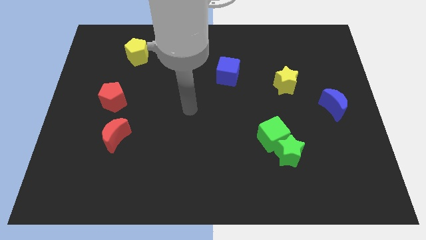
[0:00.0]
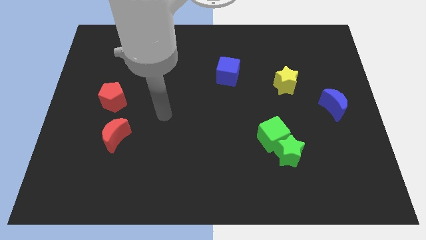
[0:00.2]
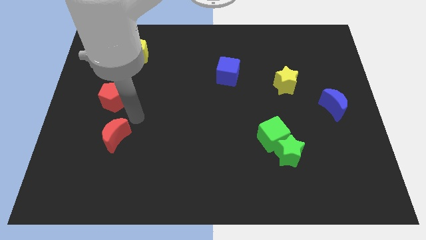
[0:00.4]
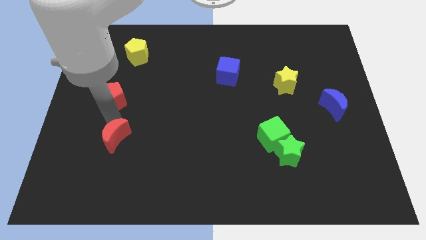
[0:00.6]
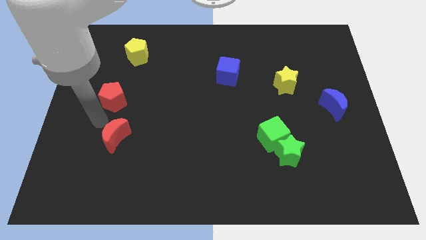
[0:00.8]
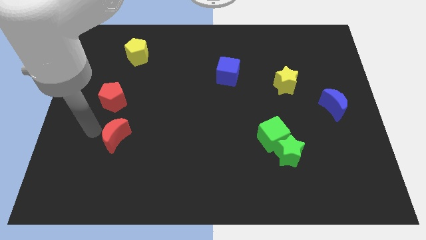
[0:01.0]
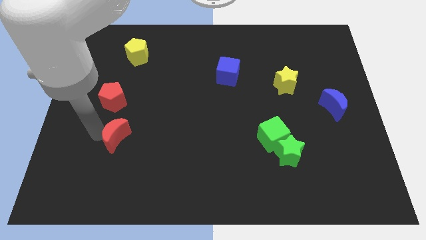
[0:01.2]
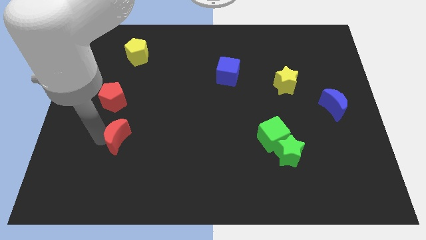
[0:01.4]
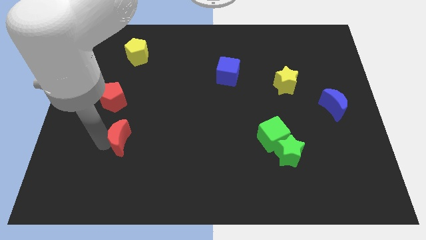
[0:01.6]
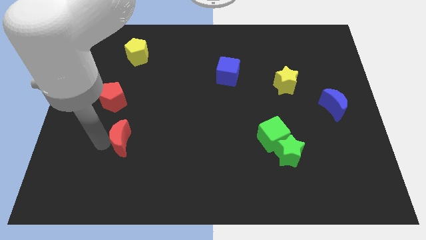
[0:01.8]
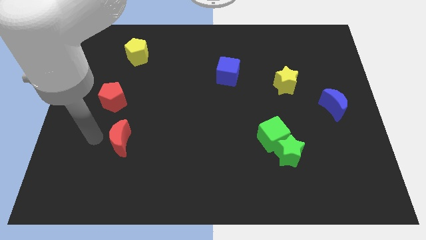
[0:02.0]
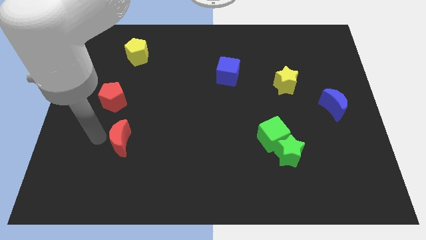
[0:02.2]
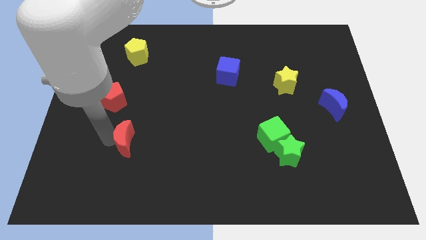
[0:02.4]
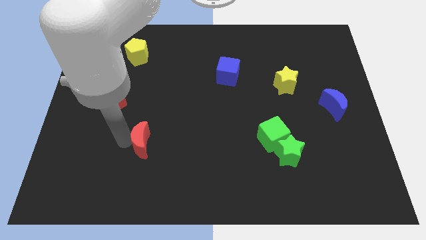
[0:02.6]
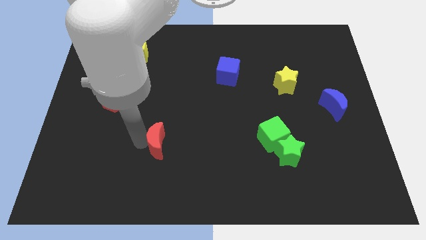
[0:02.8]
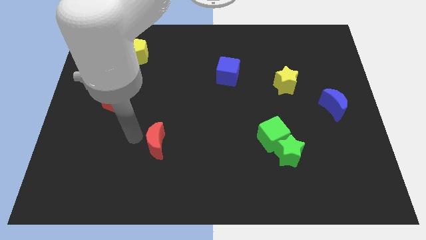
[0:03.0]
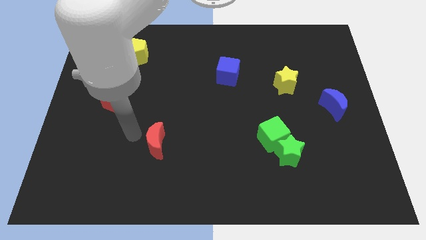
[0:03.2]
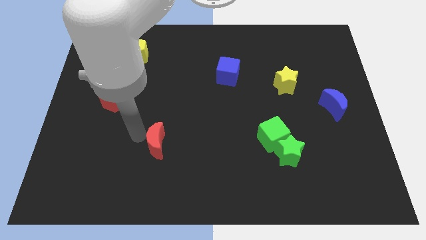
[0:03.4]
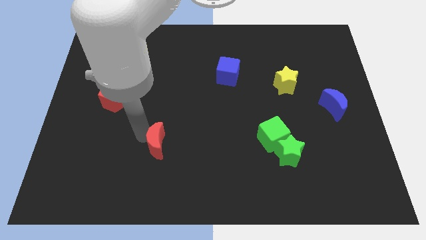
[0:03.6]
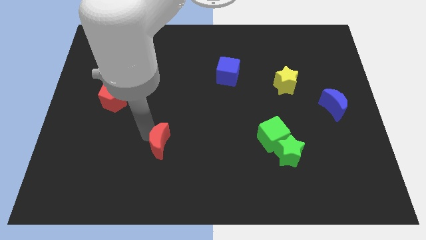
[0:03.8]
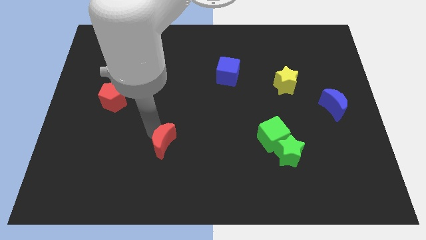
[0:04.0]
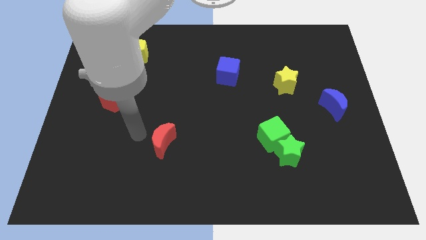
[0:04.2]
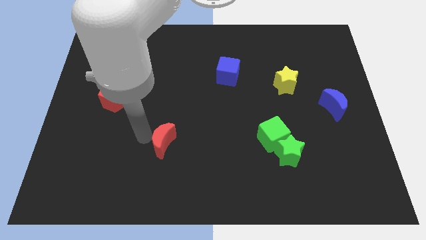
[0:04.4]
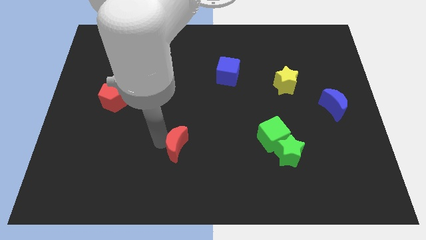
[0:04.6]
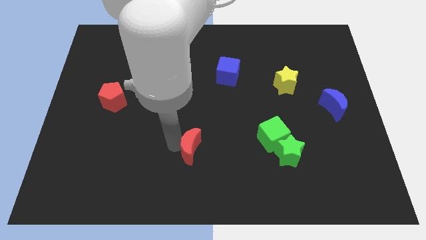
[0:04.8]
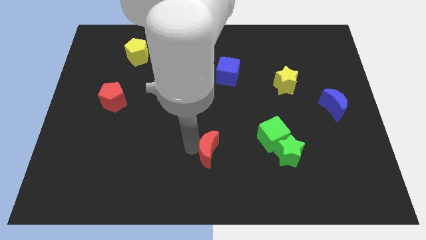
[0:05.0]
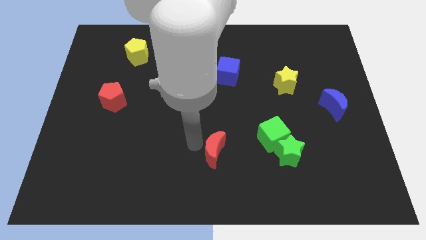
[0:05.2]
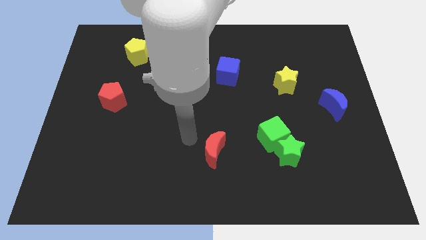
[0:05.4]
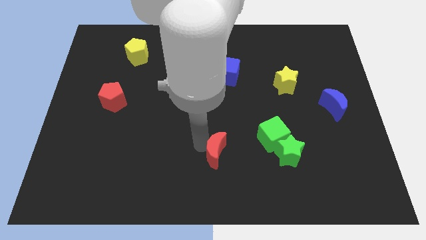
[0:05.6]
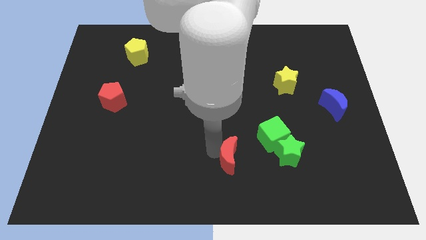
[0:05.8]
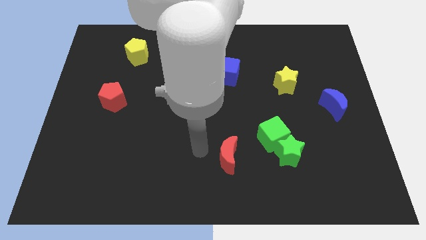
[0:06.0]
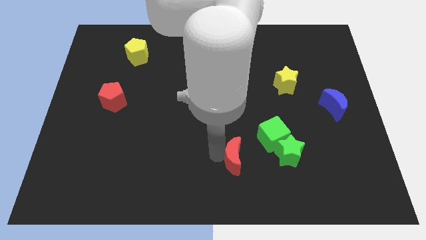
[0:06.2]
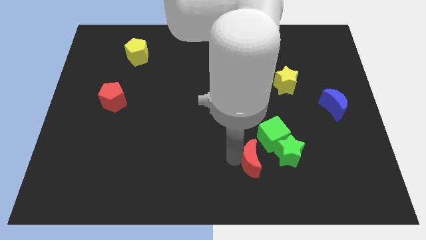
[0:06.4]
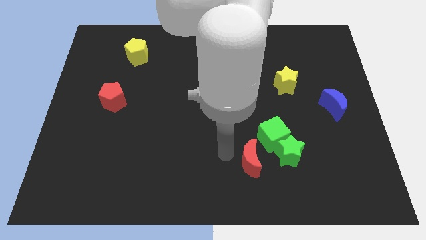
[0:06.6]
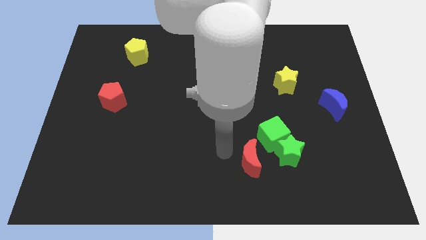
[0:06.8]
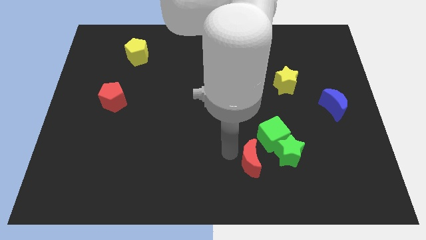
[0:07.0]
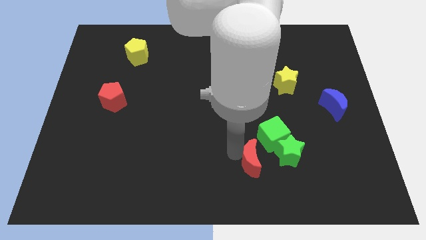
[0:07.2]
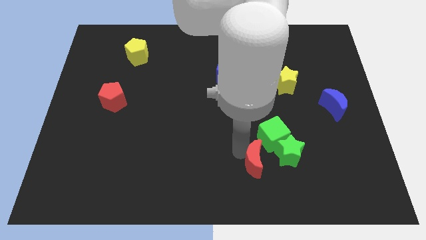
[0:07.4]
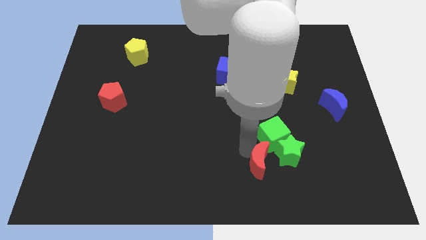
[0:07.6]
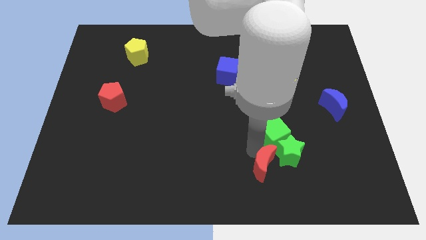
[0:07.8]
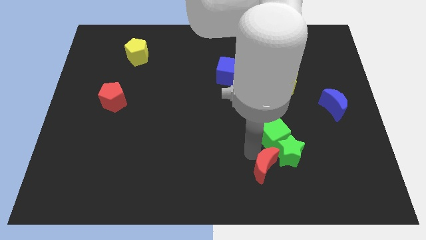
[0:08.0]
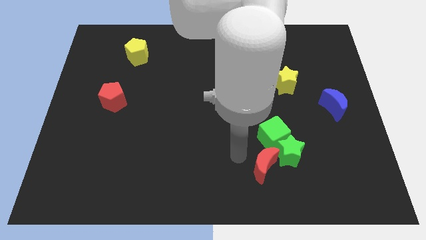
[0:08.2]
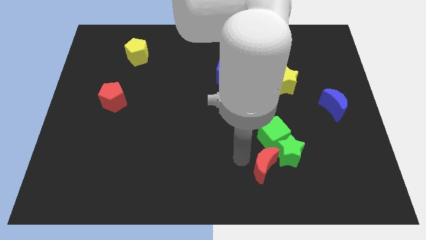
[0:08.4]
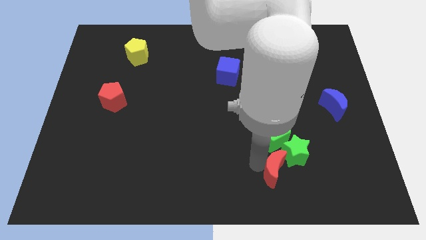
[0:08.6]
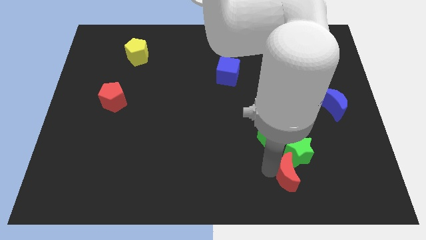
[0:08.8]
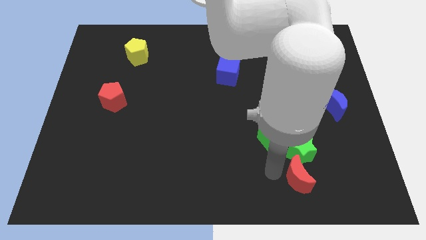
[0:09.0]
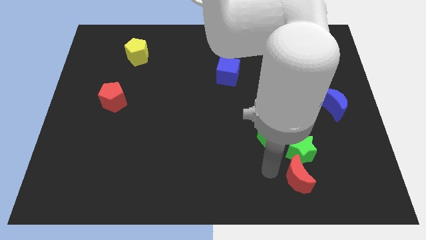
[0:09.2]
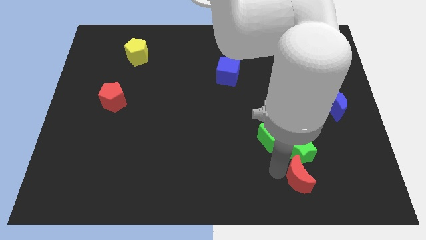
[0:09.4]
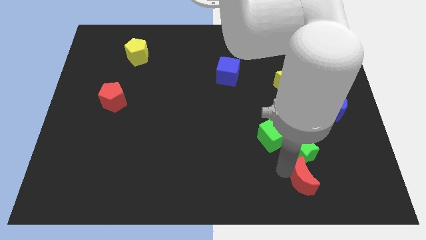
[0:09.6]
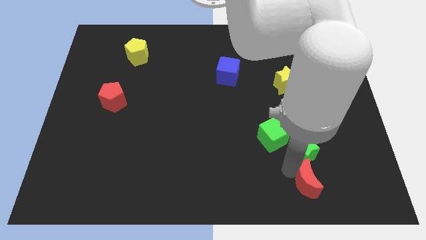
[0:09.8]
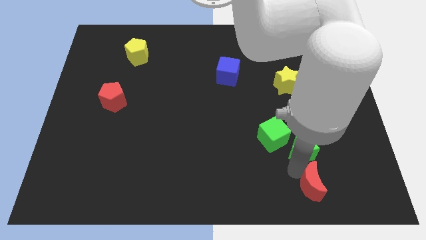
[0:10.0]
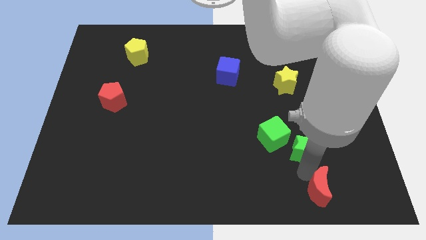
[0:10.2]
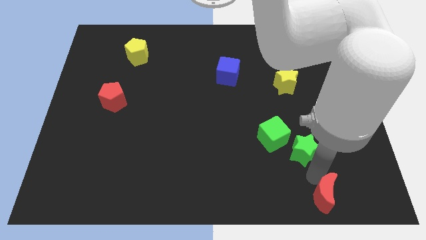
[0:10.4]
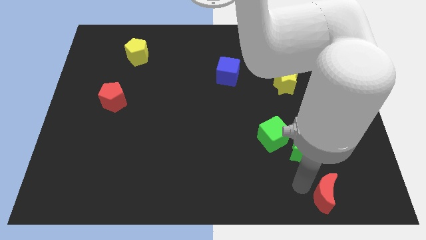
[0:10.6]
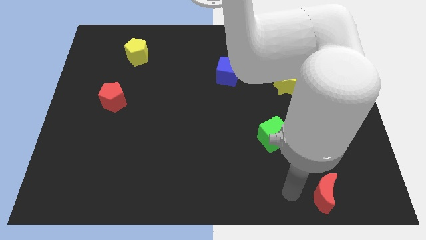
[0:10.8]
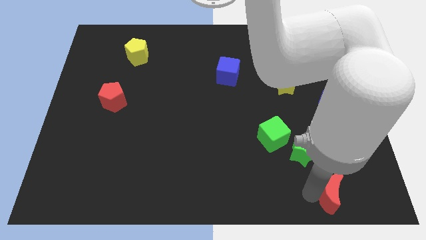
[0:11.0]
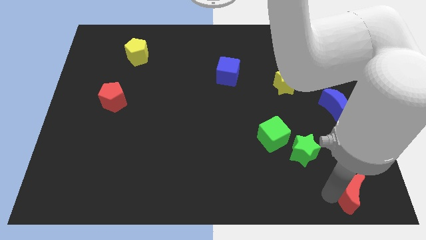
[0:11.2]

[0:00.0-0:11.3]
move the red moon to the lower right corner
